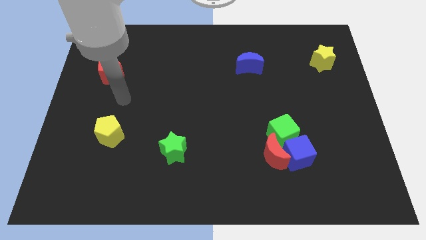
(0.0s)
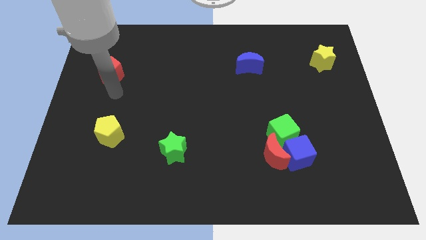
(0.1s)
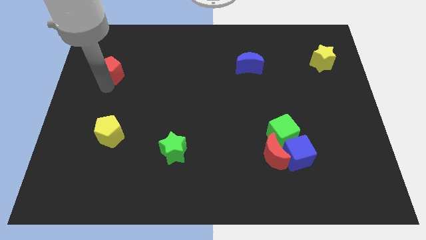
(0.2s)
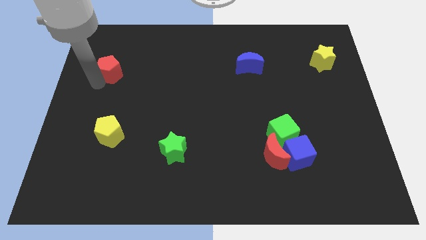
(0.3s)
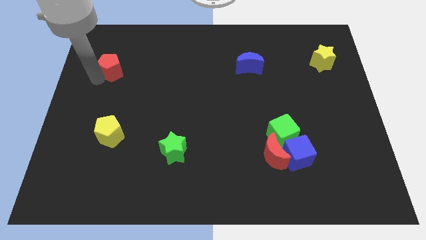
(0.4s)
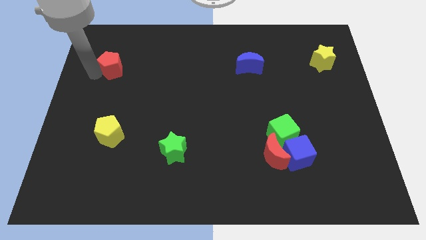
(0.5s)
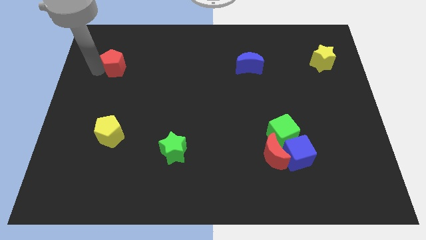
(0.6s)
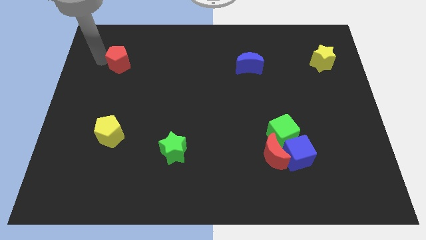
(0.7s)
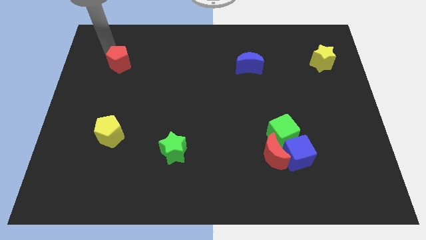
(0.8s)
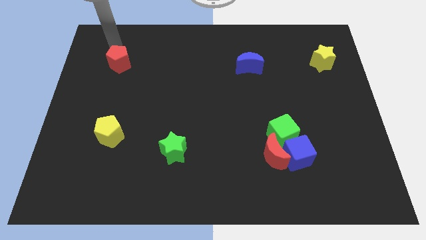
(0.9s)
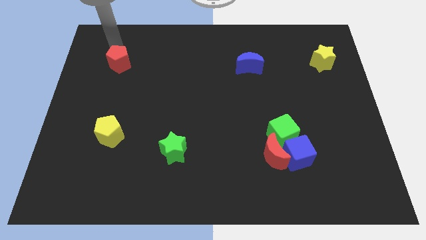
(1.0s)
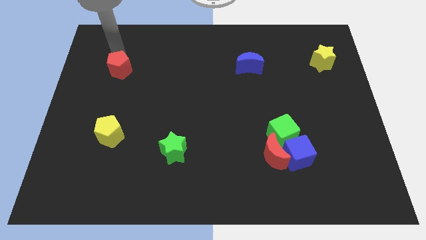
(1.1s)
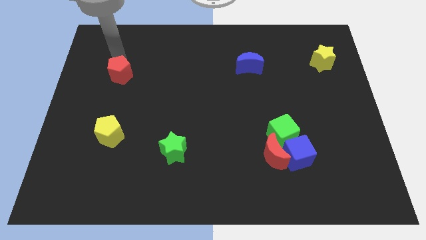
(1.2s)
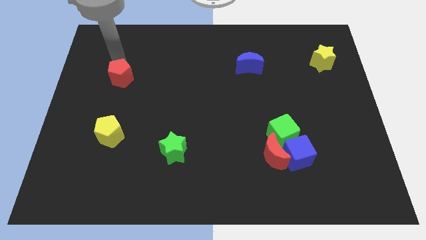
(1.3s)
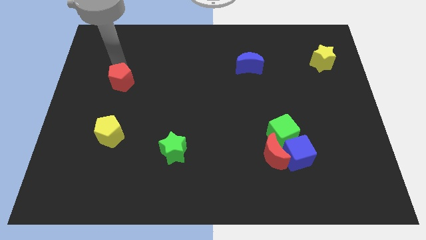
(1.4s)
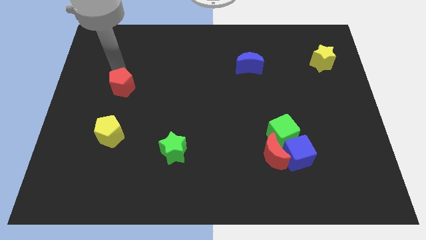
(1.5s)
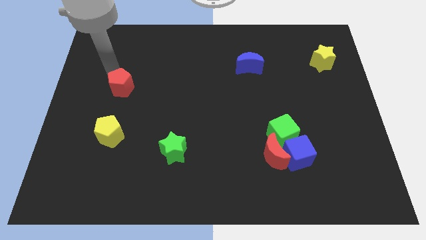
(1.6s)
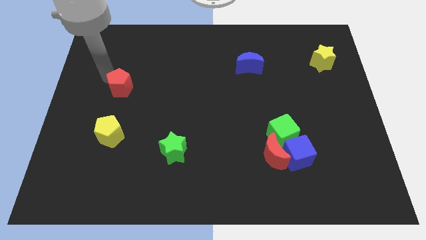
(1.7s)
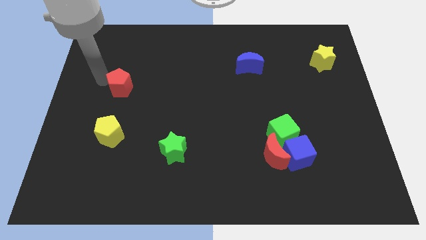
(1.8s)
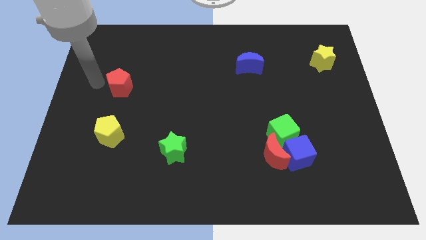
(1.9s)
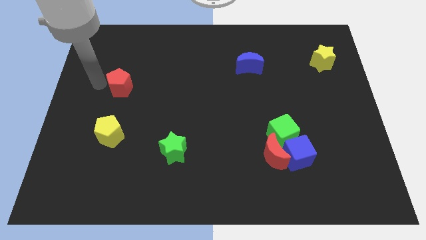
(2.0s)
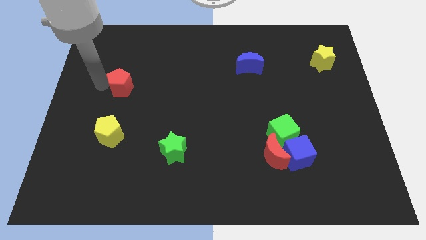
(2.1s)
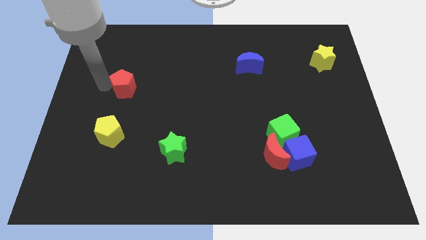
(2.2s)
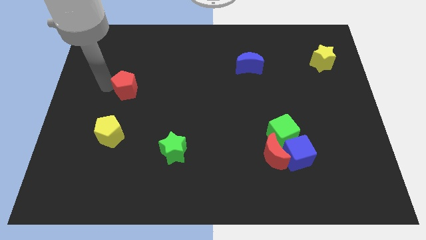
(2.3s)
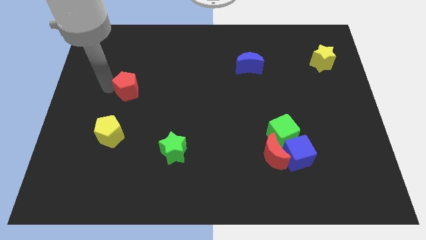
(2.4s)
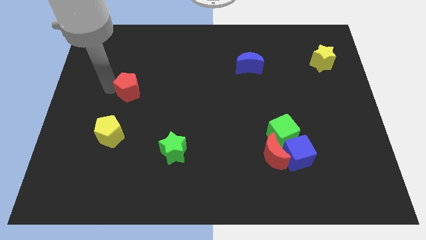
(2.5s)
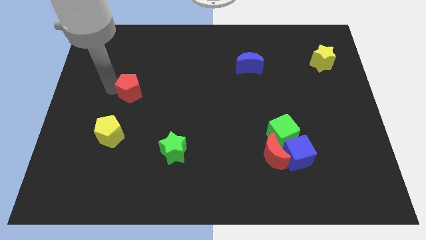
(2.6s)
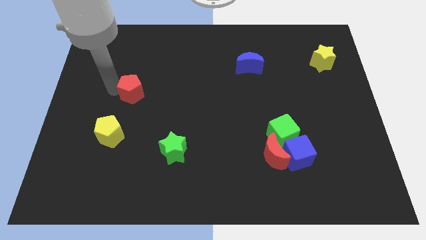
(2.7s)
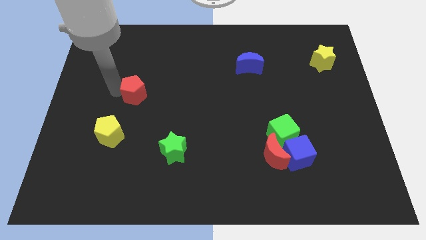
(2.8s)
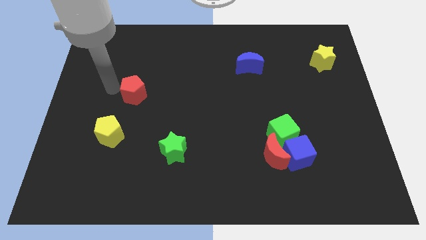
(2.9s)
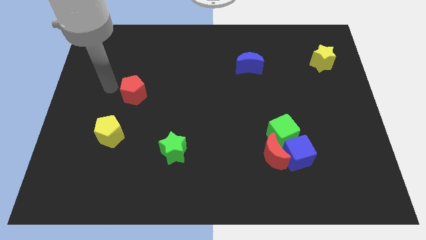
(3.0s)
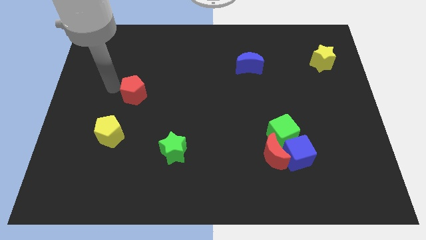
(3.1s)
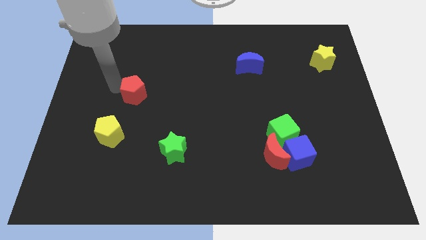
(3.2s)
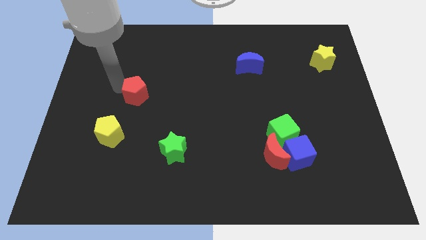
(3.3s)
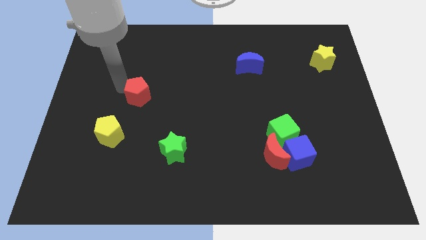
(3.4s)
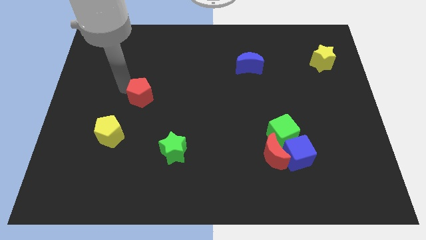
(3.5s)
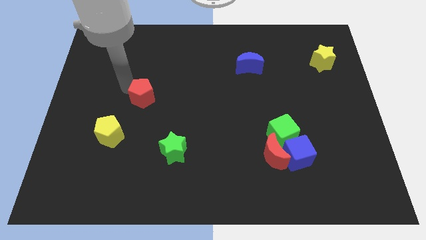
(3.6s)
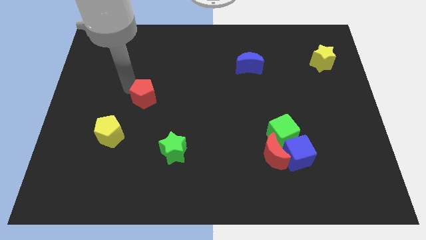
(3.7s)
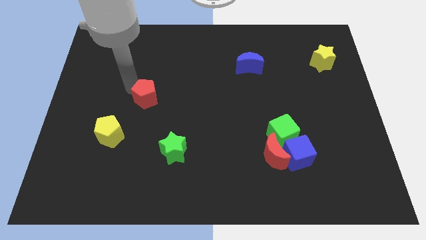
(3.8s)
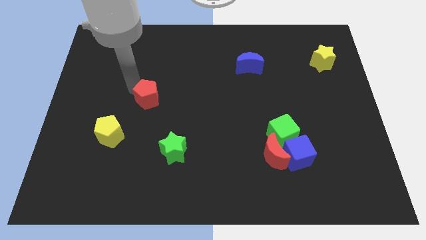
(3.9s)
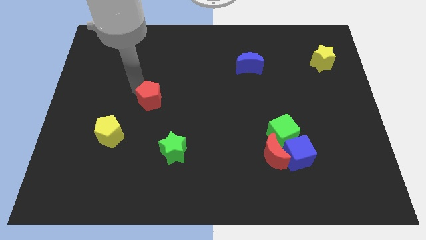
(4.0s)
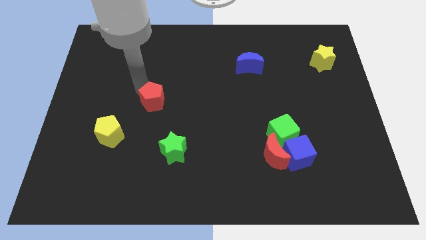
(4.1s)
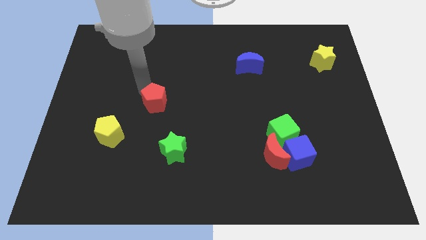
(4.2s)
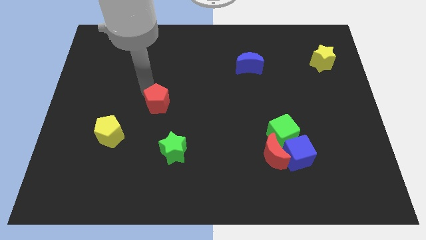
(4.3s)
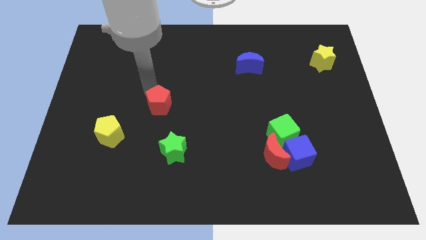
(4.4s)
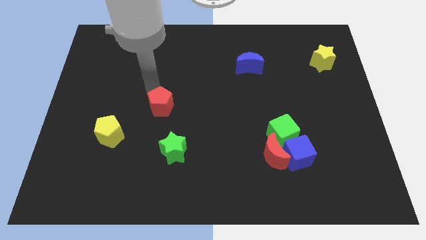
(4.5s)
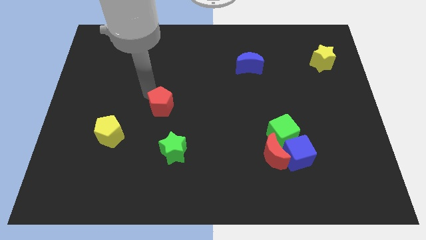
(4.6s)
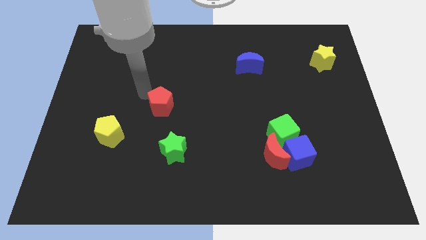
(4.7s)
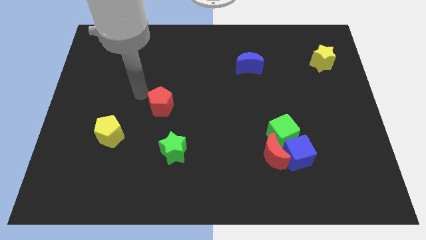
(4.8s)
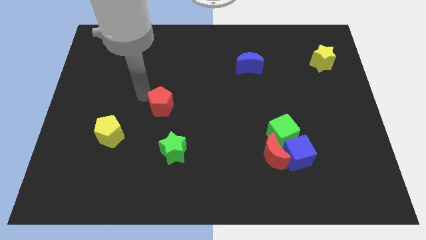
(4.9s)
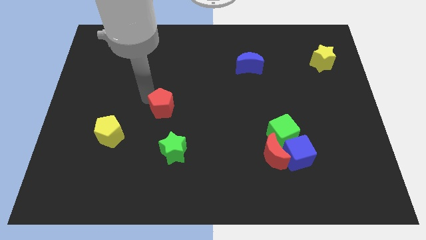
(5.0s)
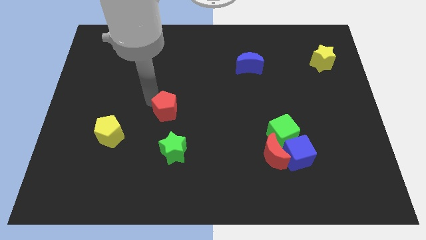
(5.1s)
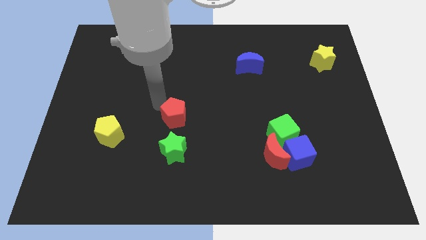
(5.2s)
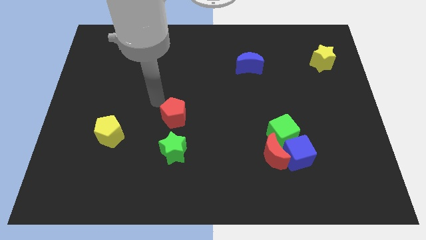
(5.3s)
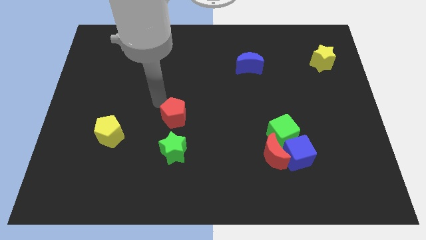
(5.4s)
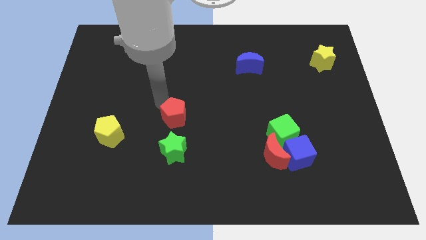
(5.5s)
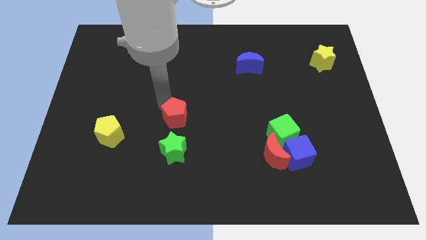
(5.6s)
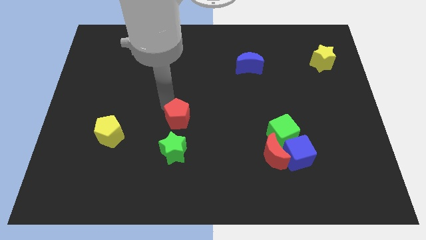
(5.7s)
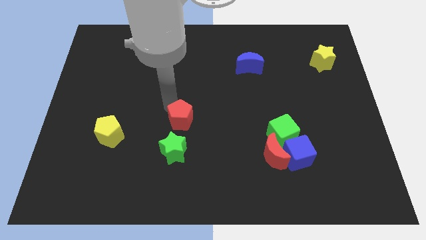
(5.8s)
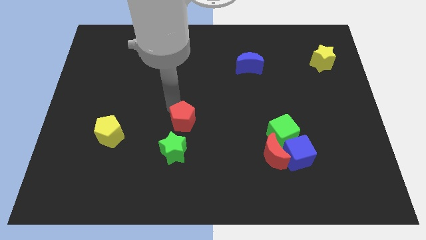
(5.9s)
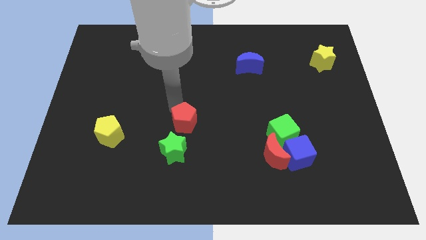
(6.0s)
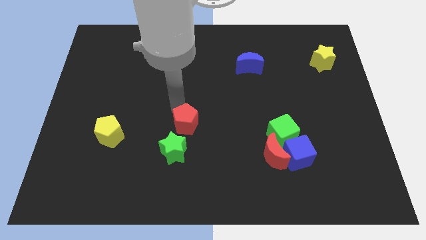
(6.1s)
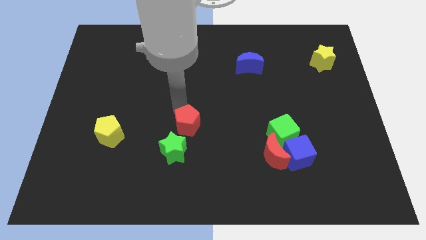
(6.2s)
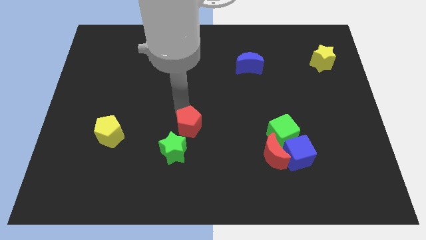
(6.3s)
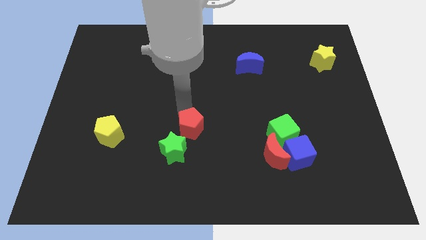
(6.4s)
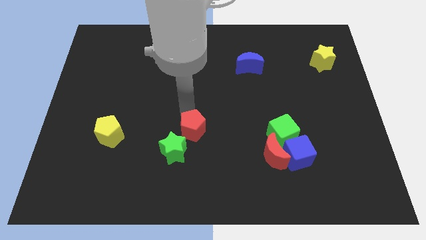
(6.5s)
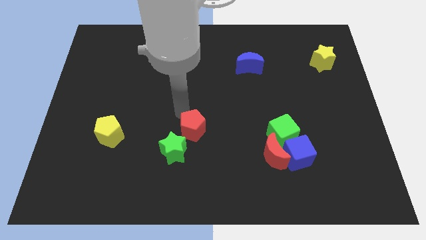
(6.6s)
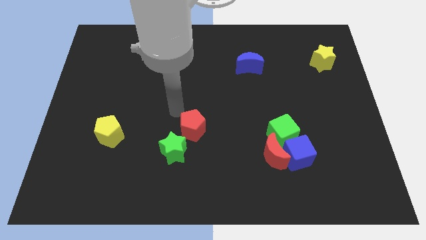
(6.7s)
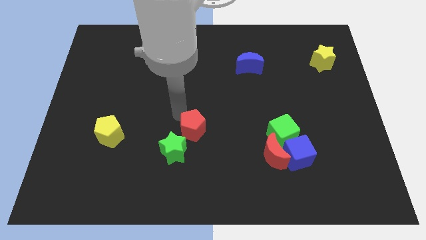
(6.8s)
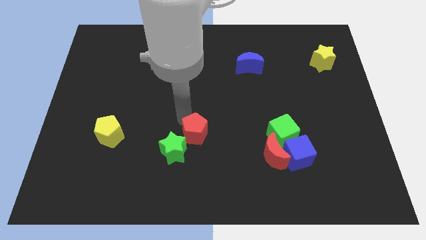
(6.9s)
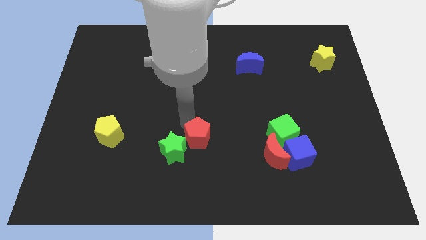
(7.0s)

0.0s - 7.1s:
put the red pentagon to the right of the green star
